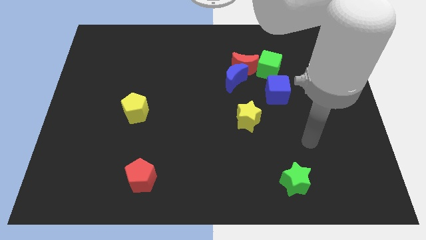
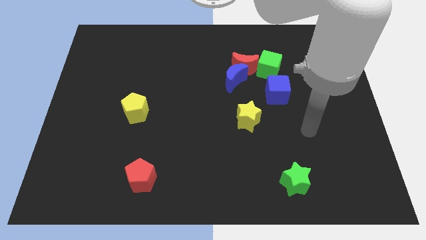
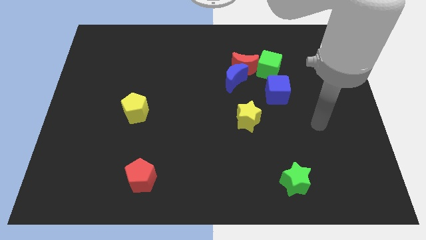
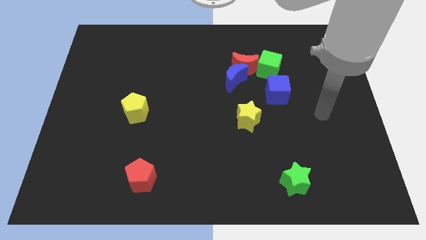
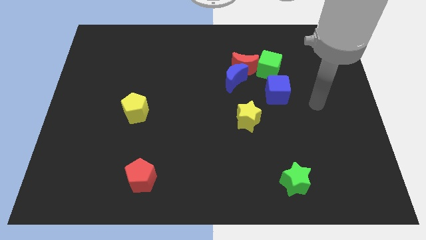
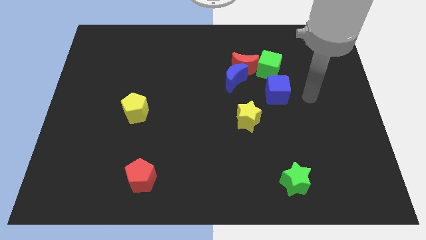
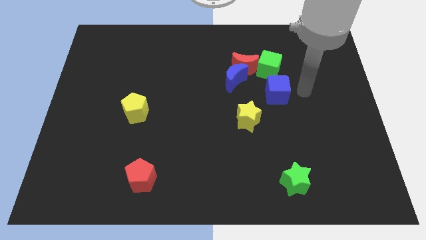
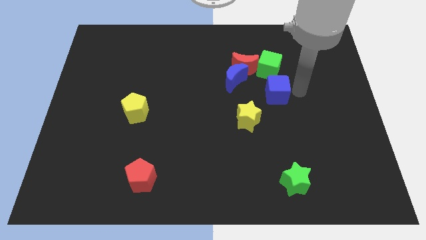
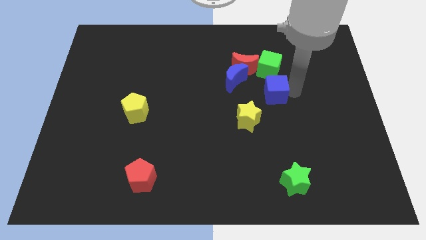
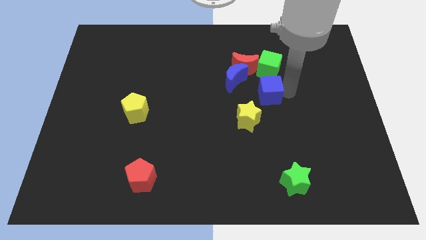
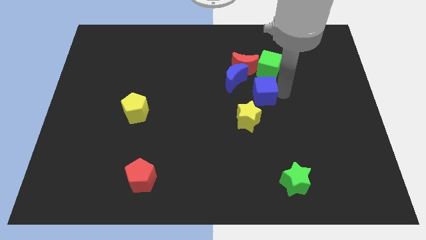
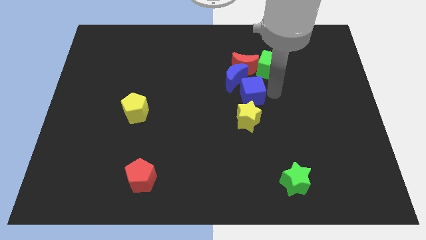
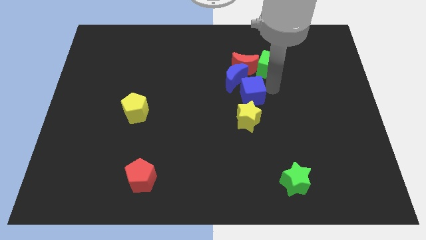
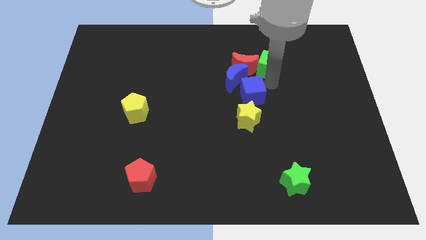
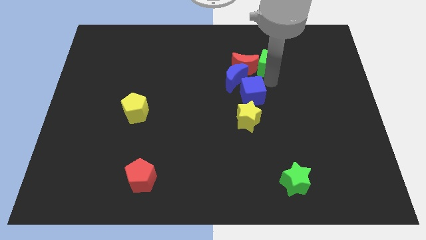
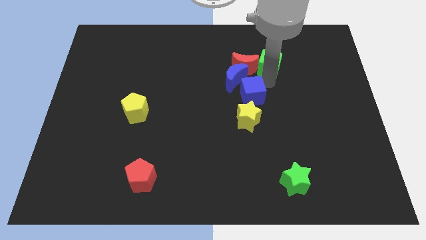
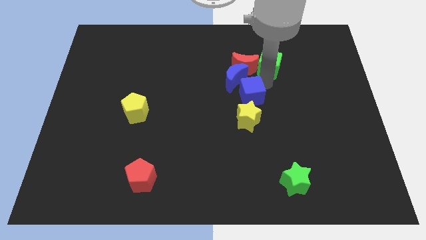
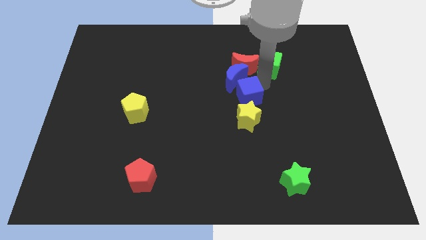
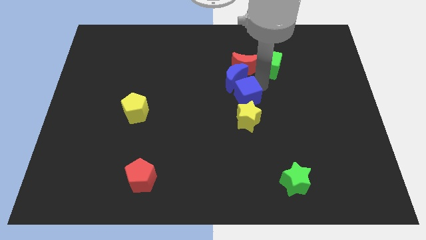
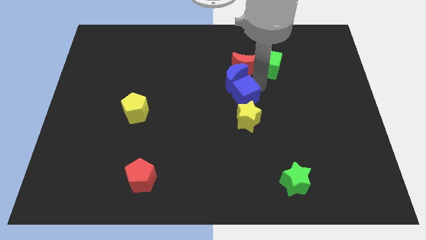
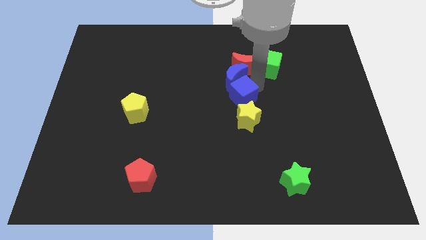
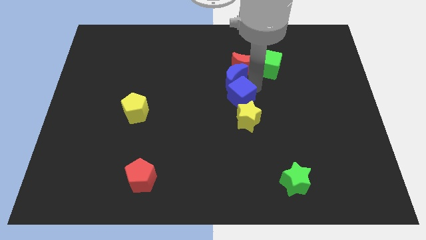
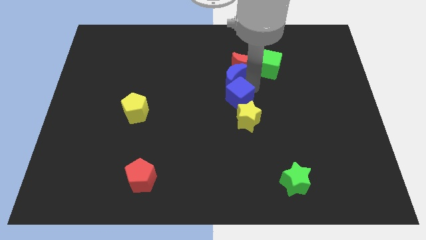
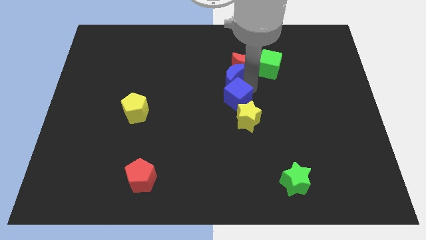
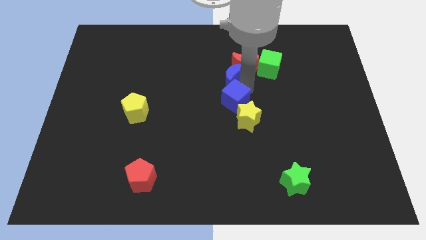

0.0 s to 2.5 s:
push the blue cube down and left somewhat

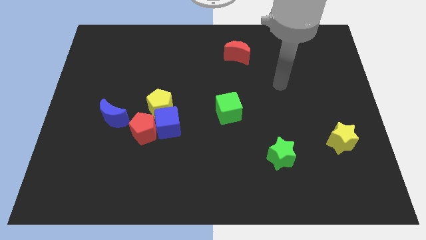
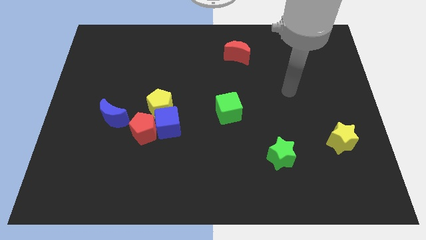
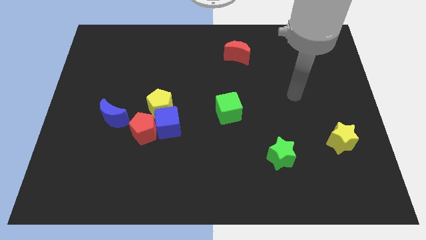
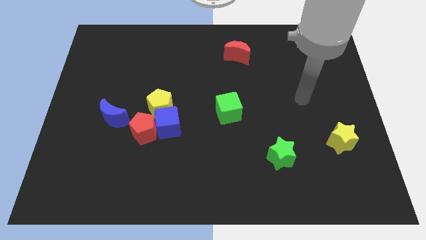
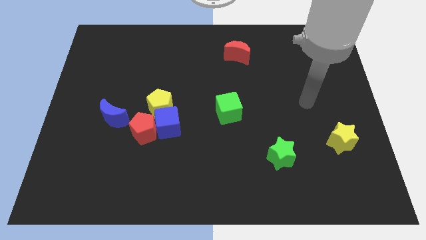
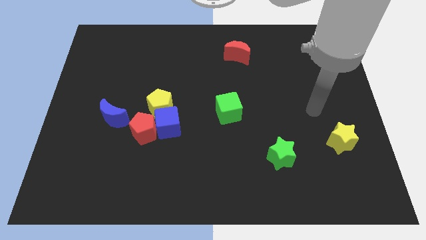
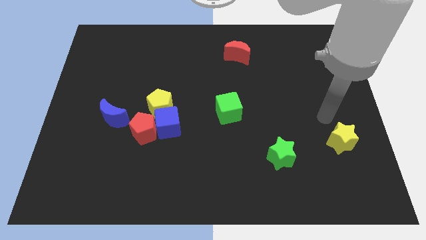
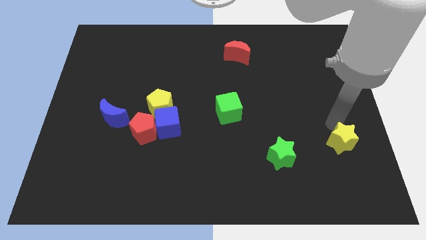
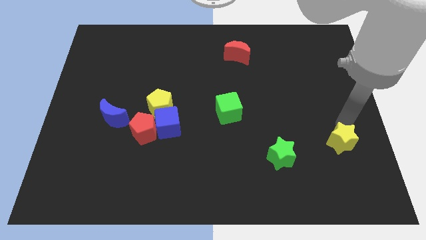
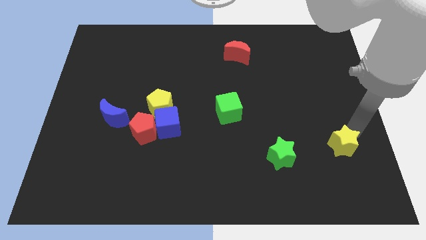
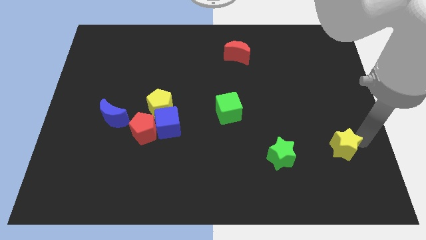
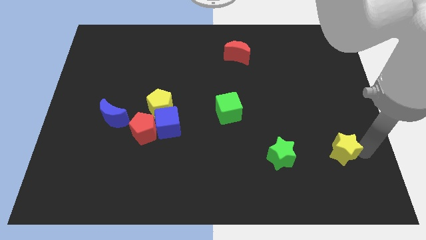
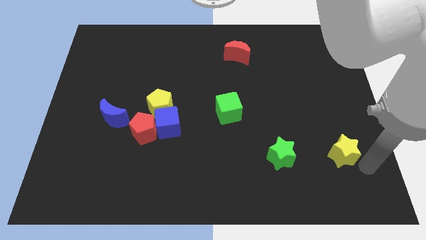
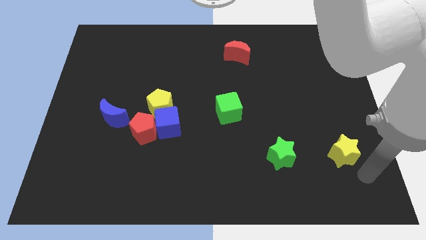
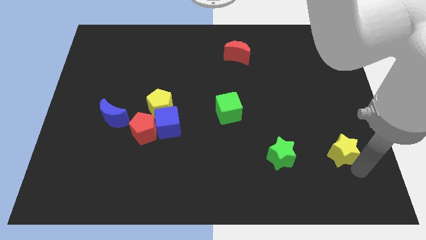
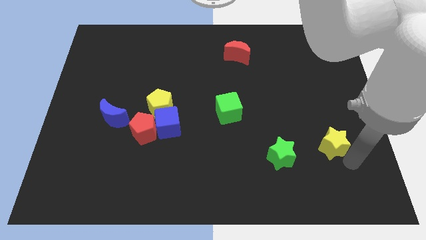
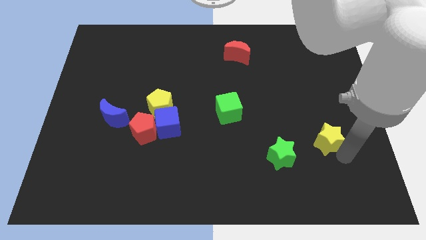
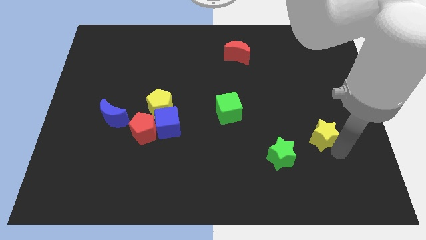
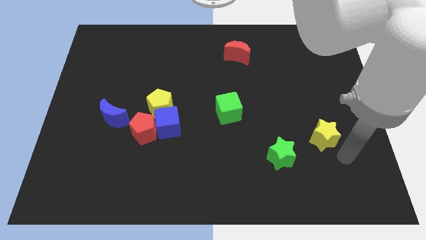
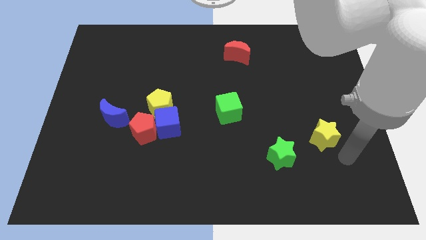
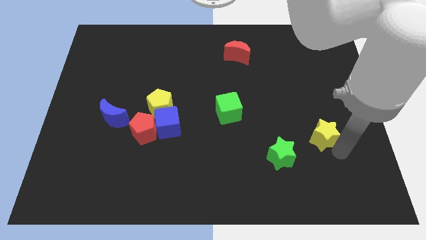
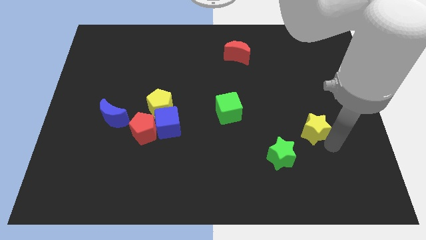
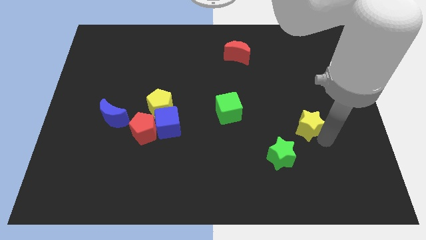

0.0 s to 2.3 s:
slightly move the yellow star upwards and left

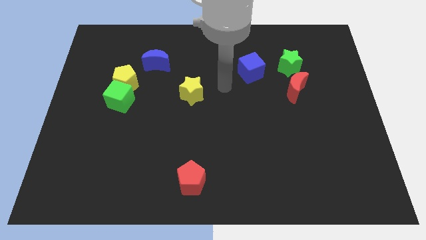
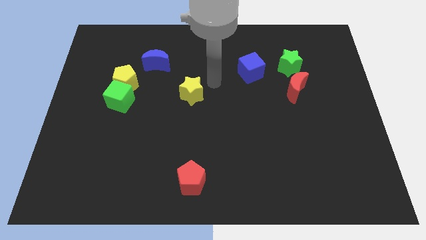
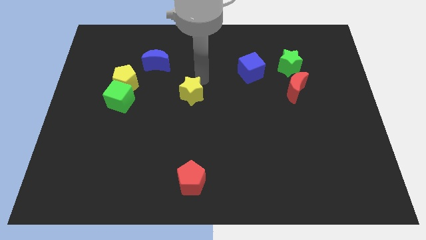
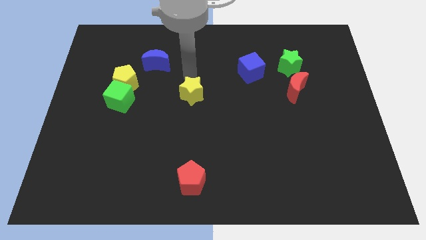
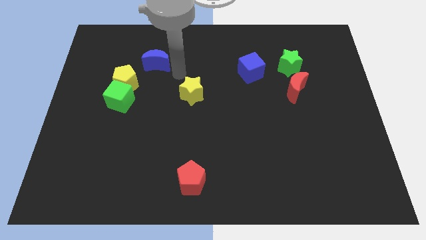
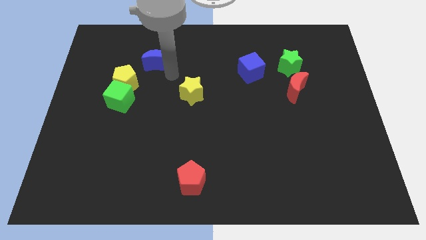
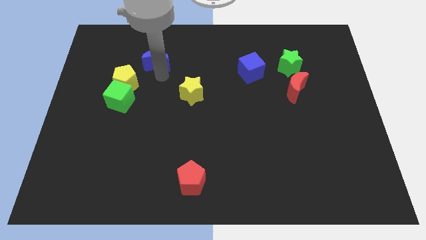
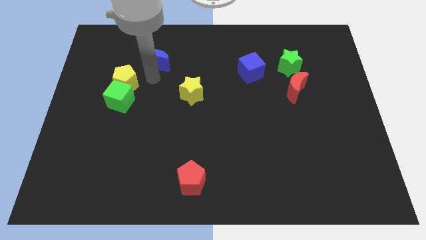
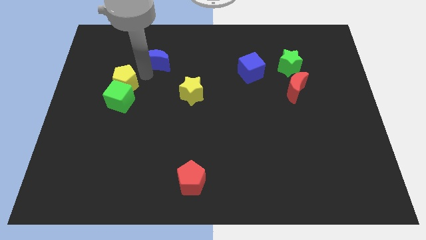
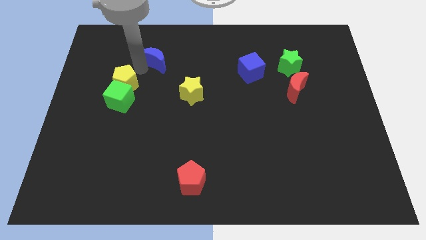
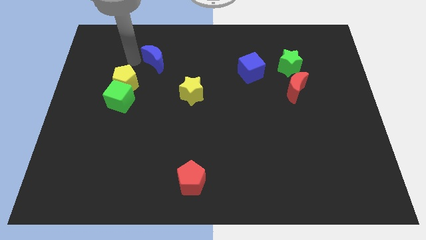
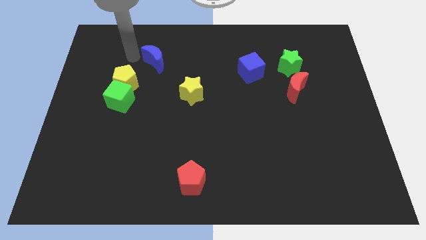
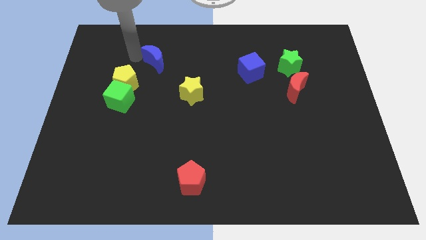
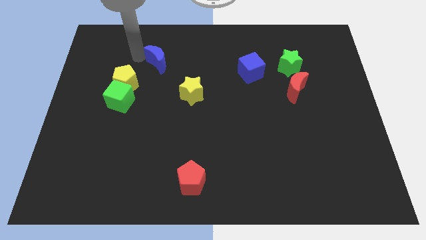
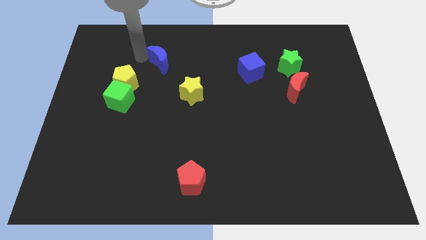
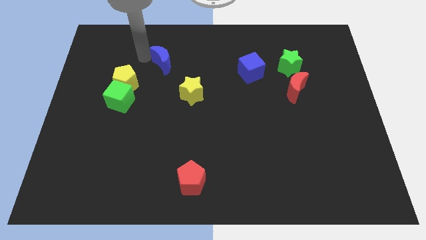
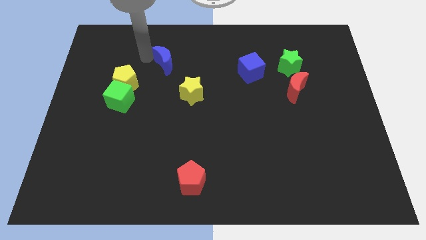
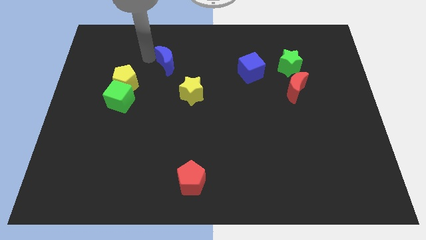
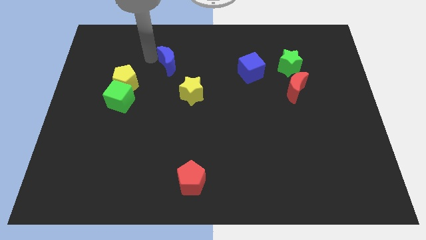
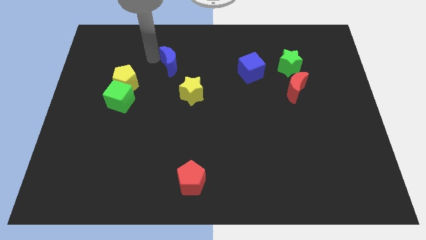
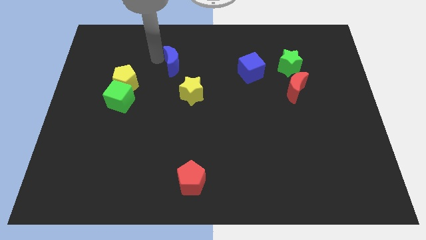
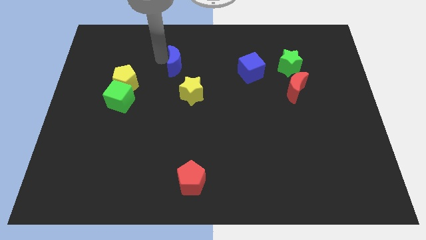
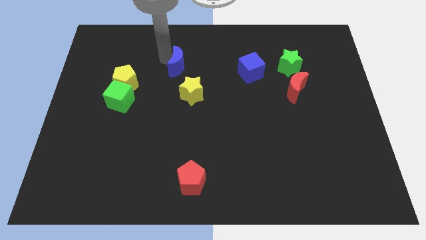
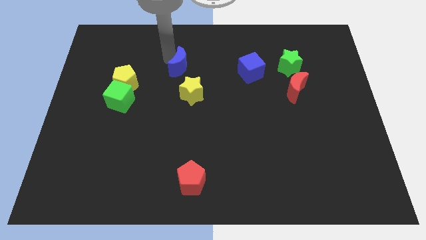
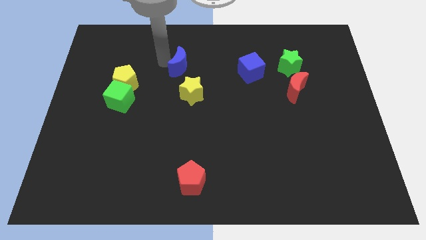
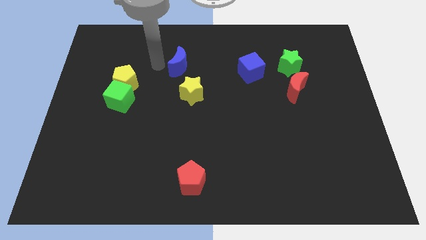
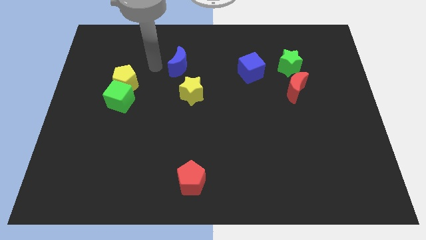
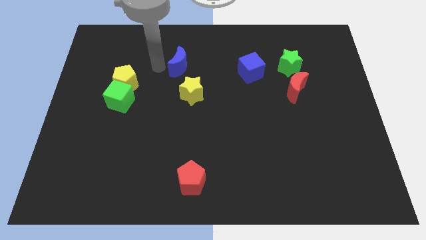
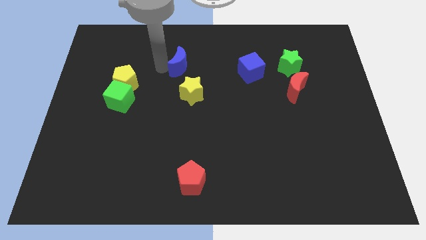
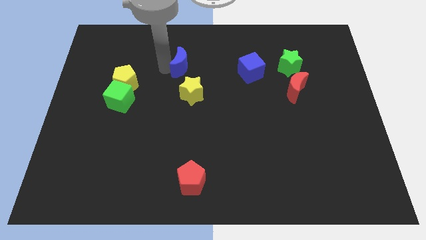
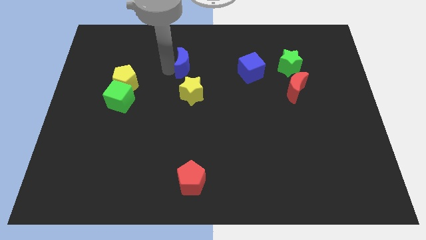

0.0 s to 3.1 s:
slide the blue moon a little to the right

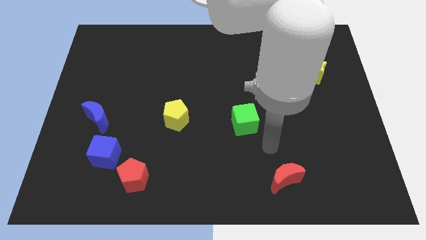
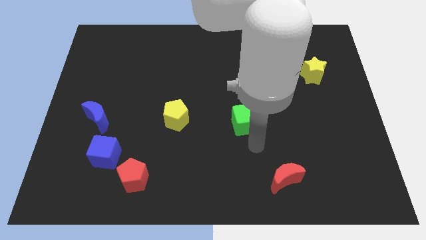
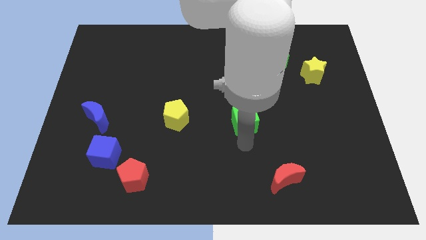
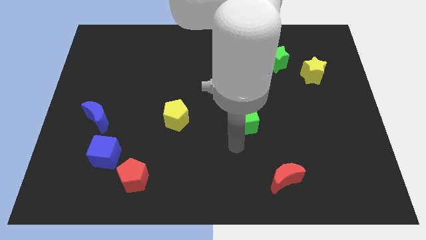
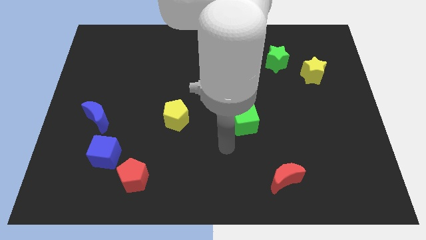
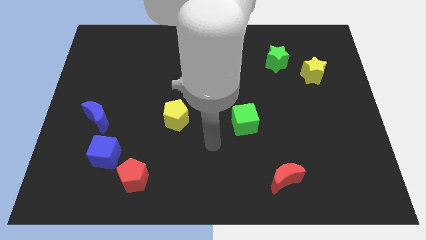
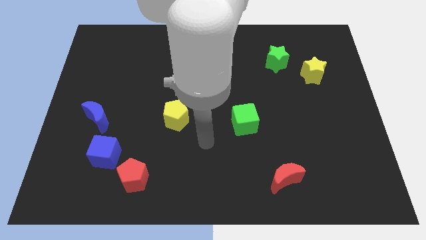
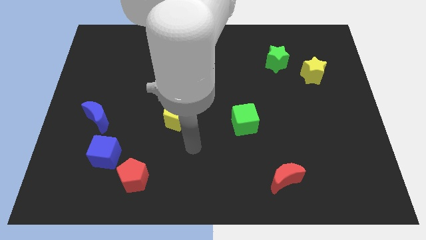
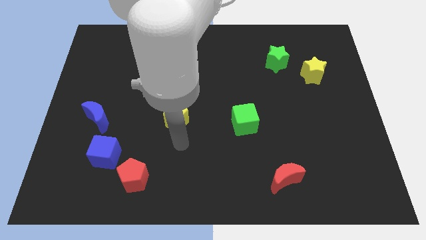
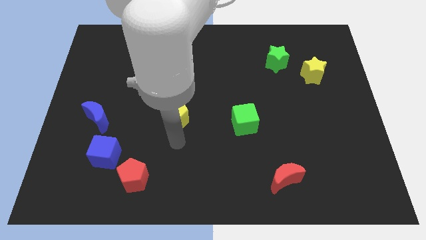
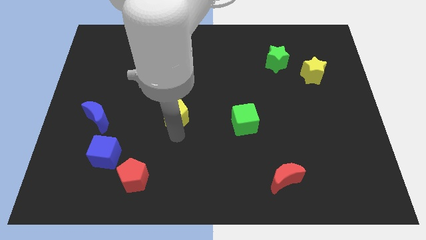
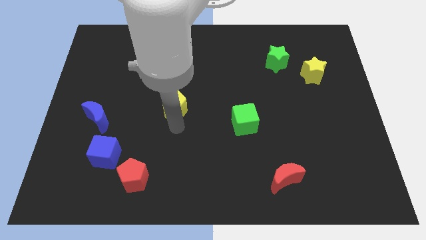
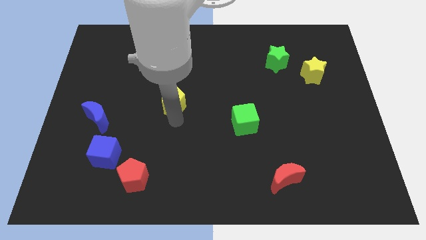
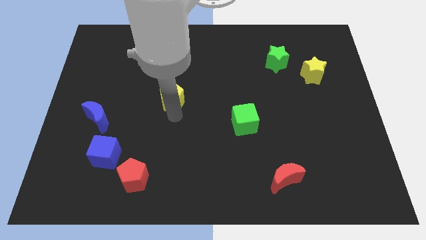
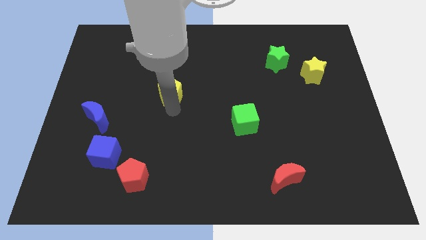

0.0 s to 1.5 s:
move the yellow pentagon upwards somewhat
